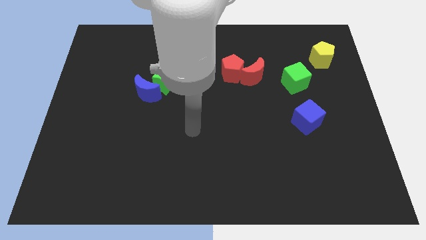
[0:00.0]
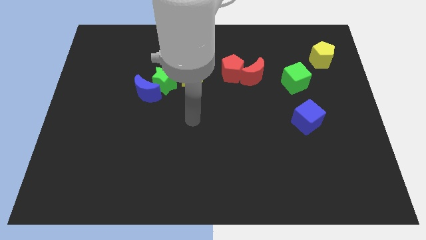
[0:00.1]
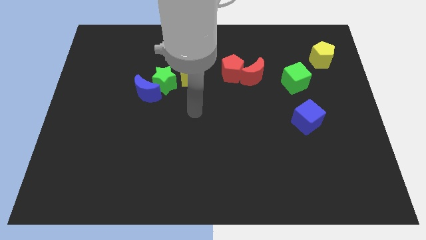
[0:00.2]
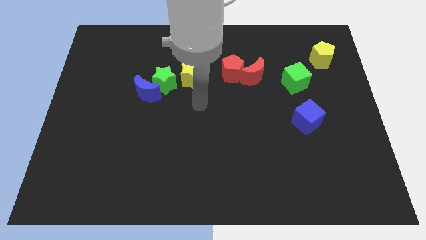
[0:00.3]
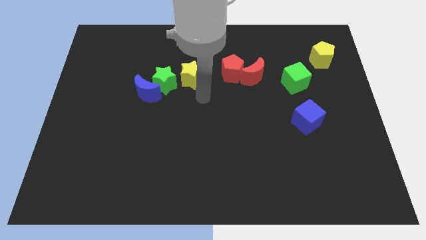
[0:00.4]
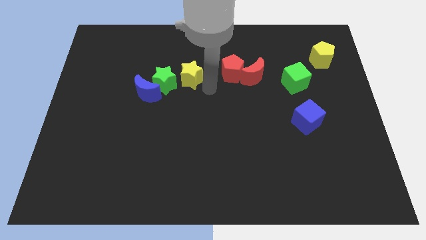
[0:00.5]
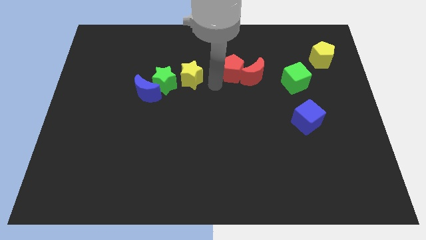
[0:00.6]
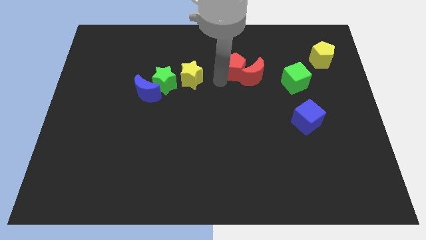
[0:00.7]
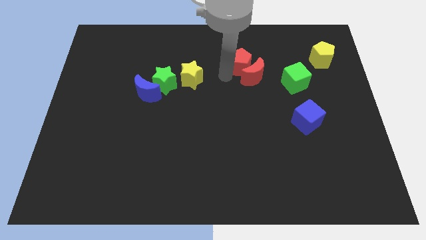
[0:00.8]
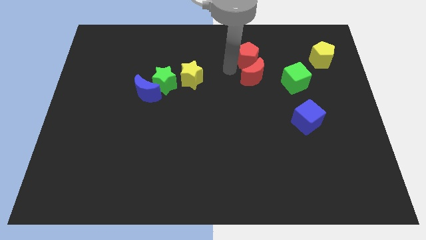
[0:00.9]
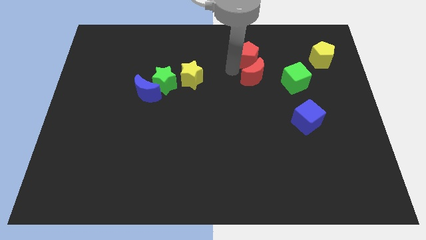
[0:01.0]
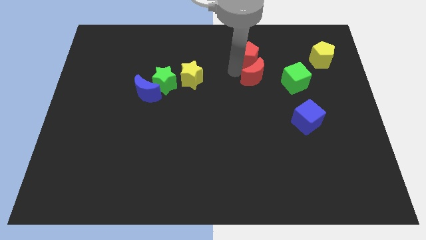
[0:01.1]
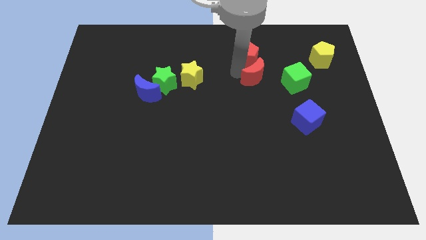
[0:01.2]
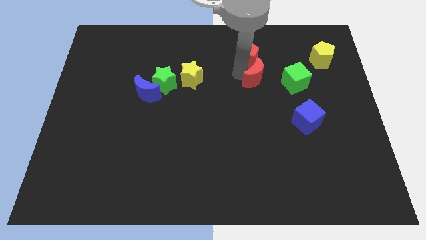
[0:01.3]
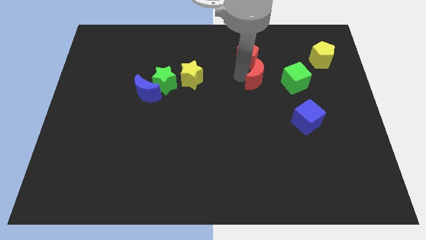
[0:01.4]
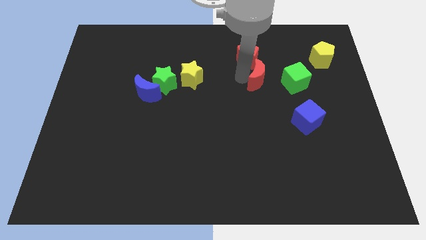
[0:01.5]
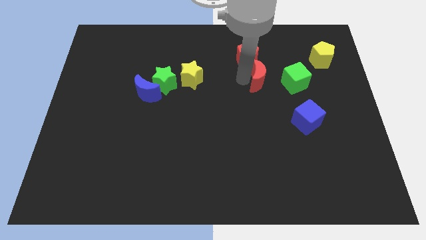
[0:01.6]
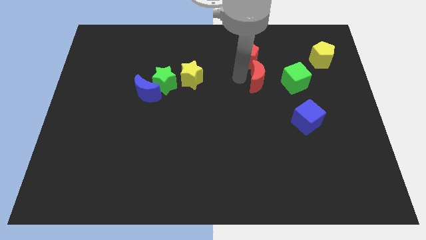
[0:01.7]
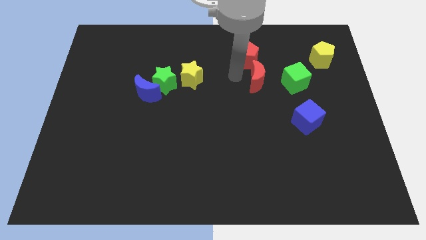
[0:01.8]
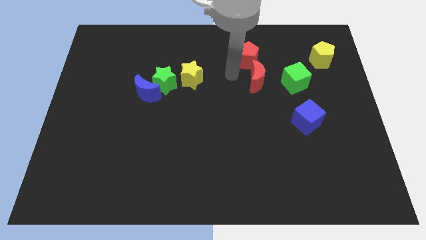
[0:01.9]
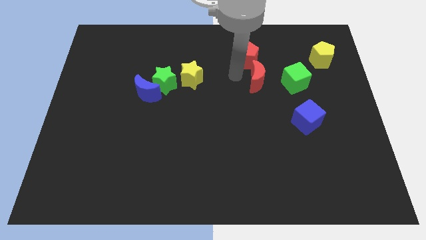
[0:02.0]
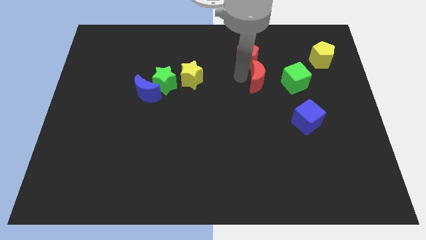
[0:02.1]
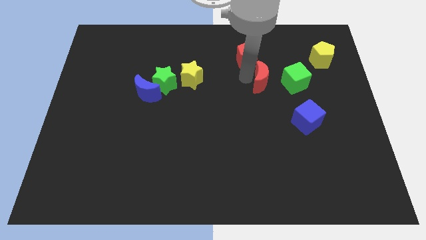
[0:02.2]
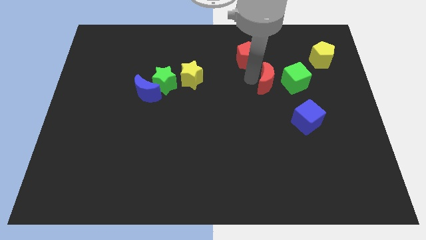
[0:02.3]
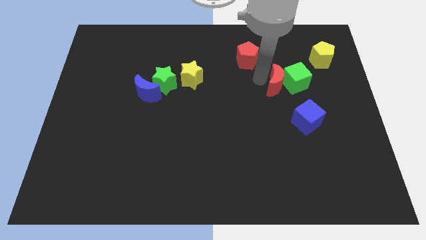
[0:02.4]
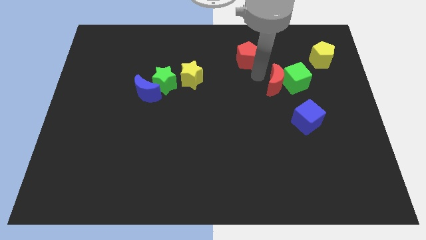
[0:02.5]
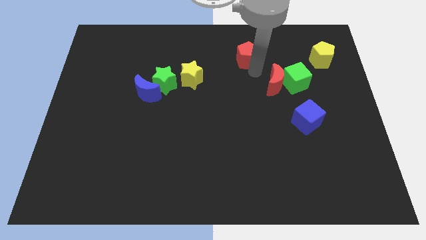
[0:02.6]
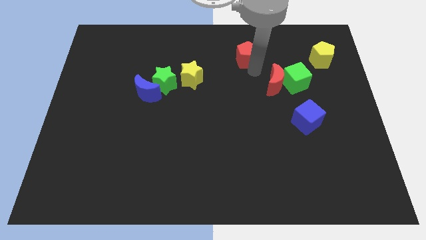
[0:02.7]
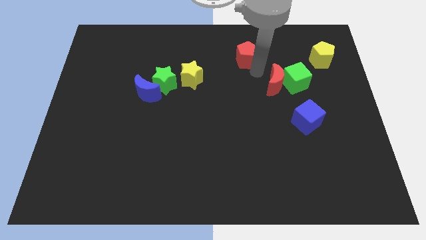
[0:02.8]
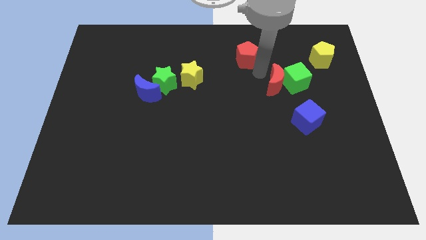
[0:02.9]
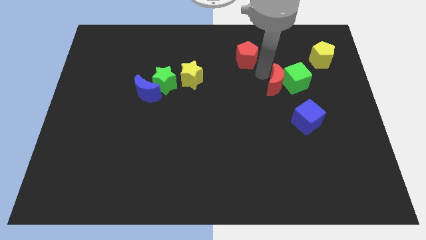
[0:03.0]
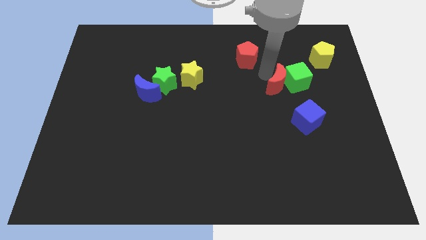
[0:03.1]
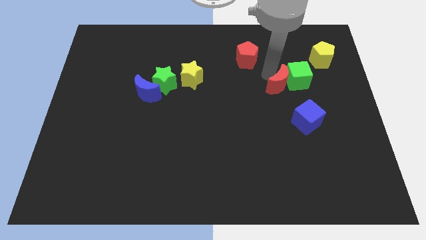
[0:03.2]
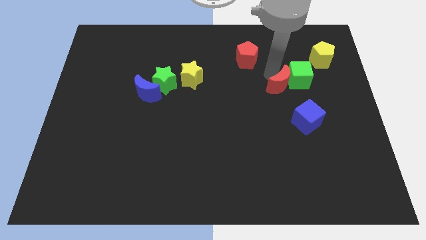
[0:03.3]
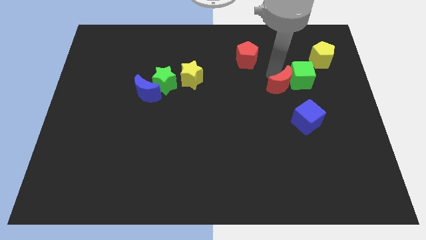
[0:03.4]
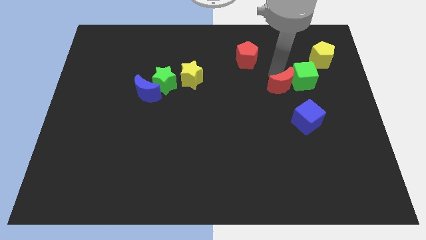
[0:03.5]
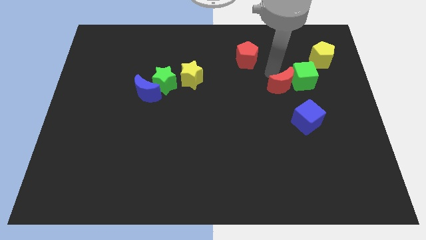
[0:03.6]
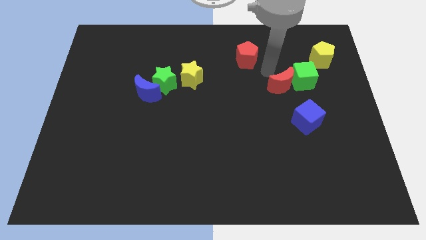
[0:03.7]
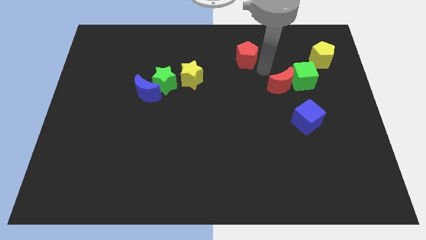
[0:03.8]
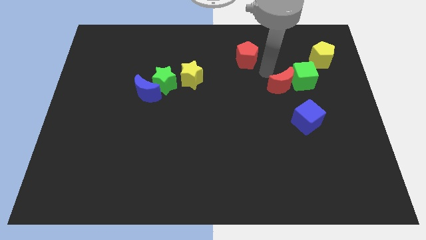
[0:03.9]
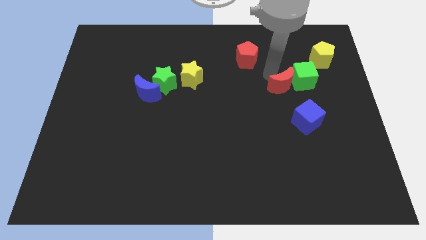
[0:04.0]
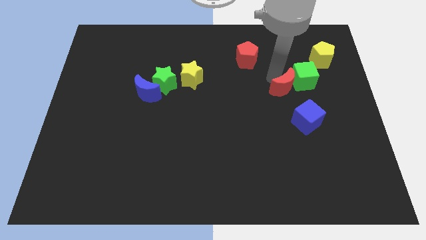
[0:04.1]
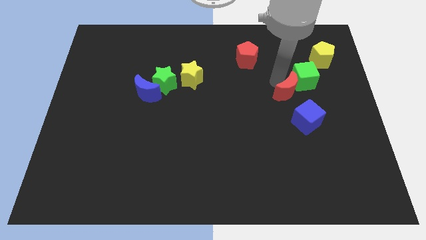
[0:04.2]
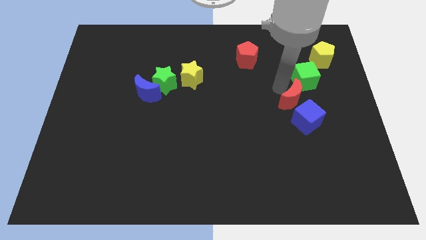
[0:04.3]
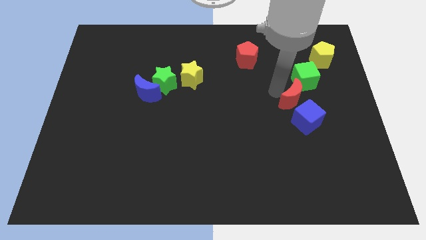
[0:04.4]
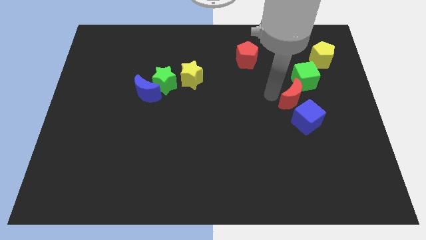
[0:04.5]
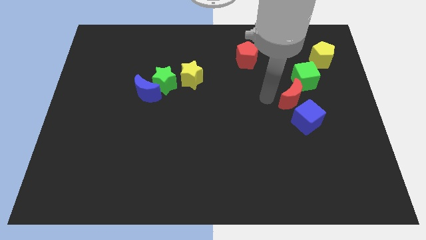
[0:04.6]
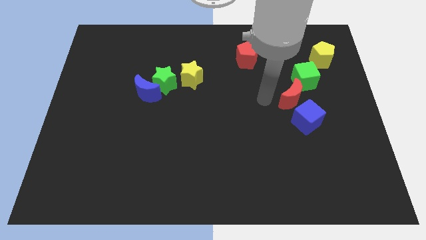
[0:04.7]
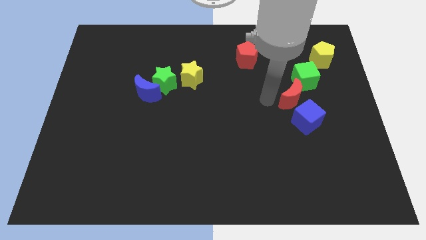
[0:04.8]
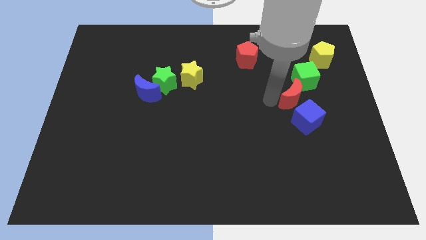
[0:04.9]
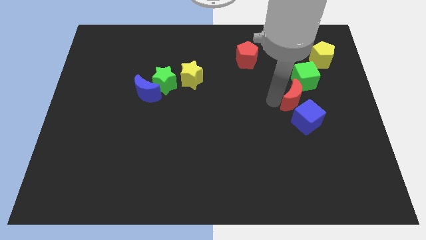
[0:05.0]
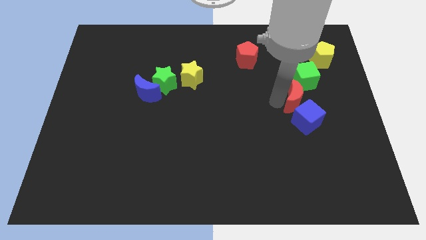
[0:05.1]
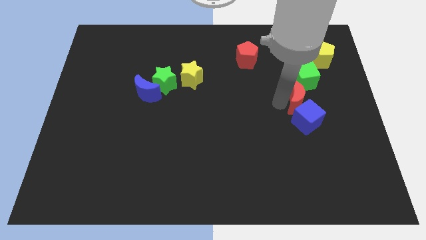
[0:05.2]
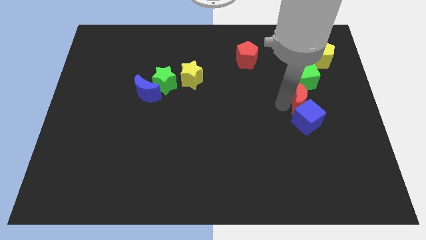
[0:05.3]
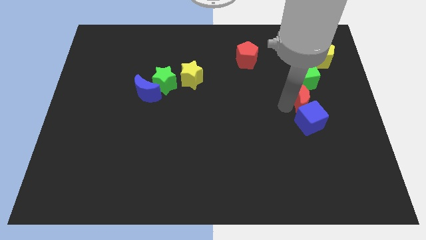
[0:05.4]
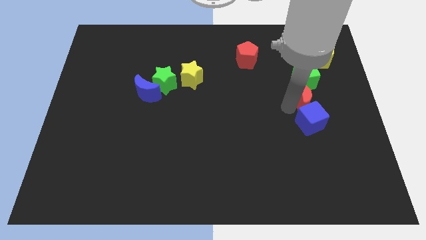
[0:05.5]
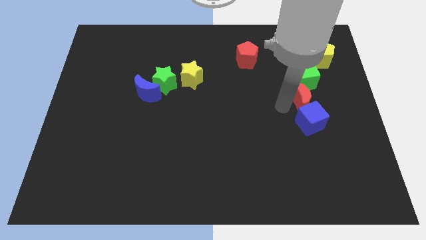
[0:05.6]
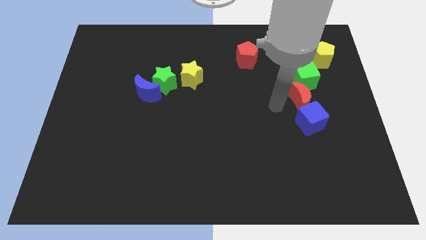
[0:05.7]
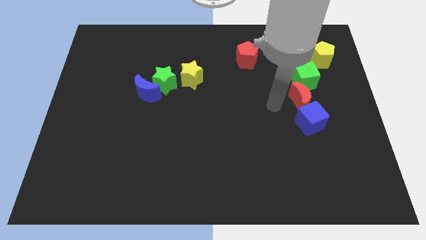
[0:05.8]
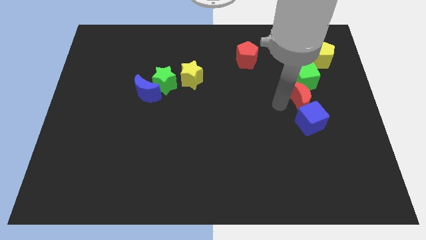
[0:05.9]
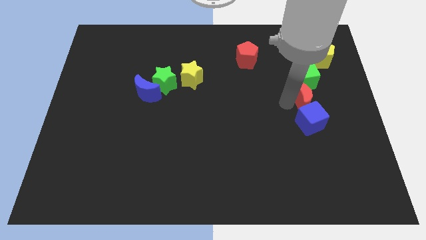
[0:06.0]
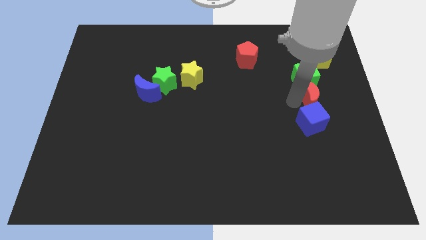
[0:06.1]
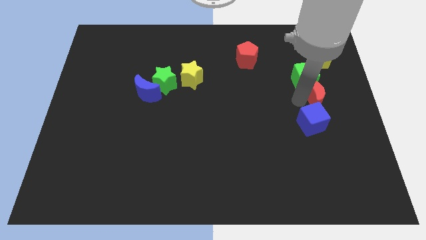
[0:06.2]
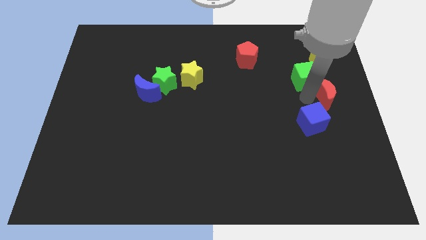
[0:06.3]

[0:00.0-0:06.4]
move the red moon to the right side
